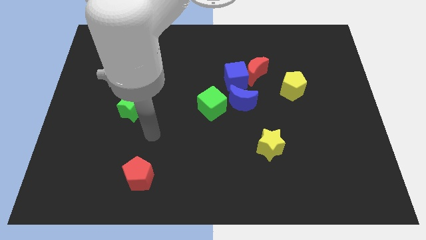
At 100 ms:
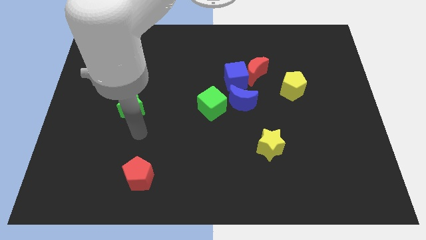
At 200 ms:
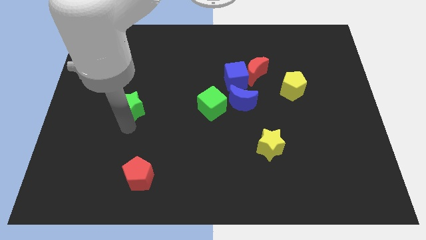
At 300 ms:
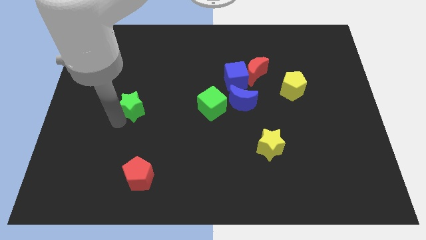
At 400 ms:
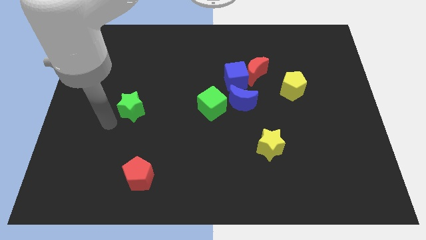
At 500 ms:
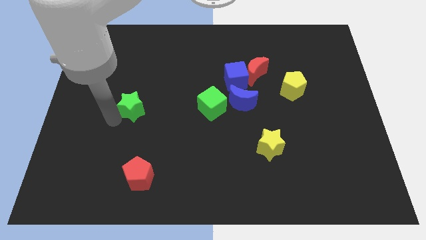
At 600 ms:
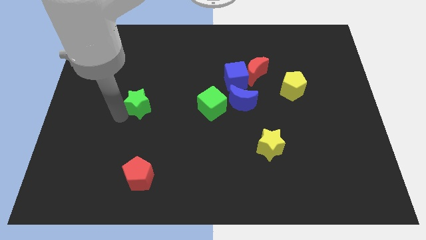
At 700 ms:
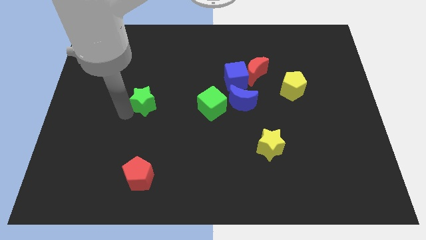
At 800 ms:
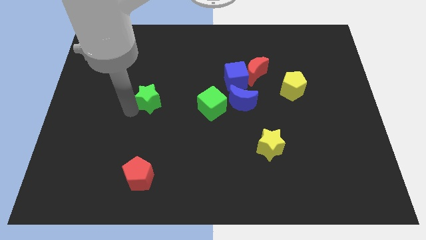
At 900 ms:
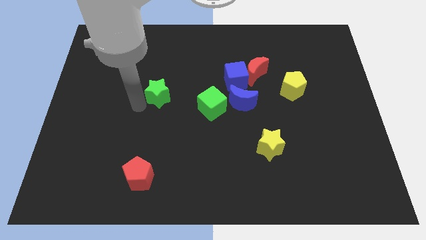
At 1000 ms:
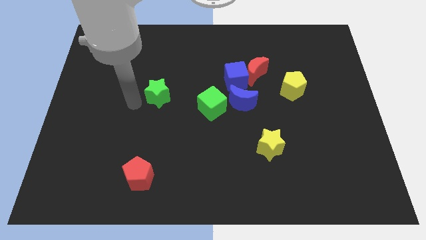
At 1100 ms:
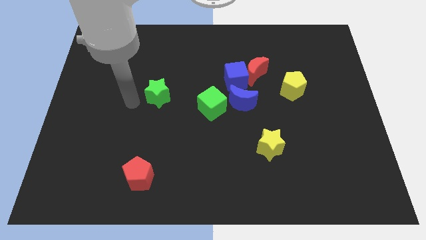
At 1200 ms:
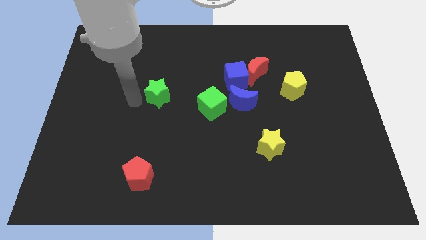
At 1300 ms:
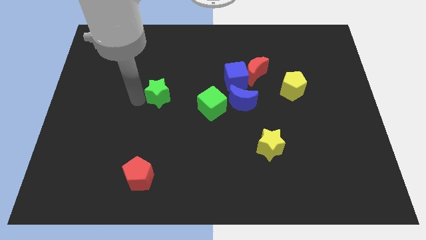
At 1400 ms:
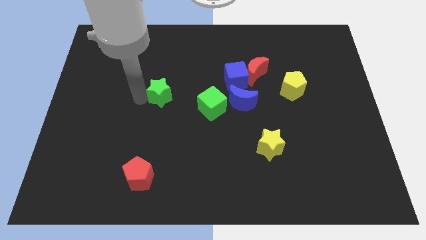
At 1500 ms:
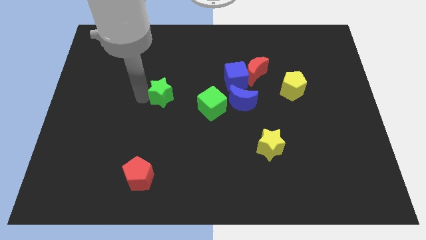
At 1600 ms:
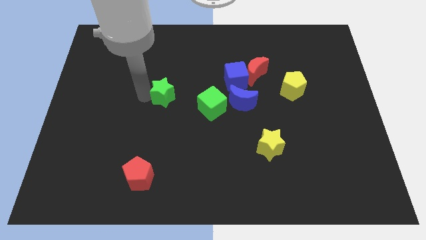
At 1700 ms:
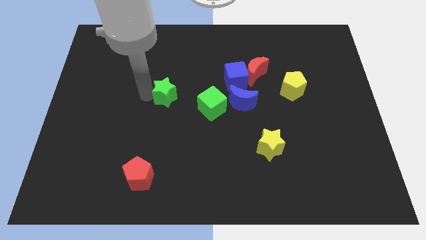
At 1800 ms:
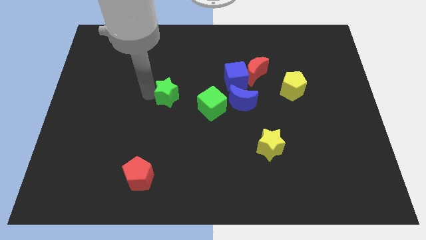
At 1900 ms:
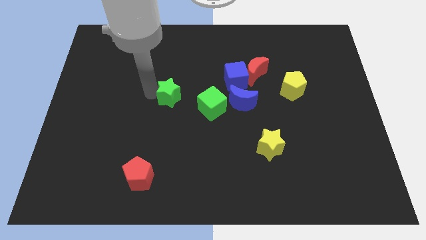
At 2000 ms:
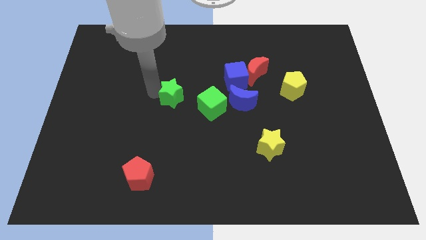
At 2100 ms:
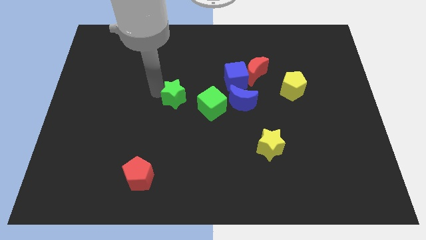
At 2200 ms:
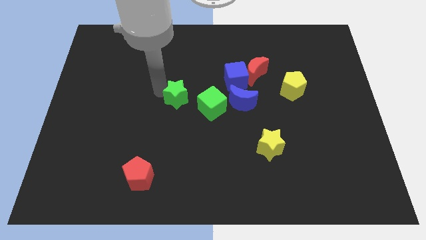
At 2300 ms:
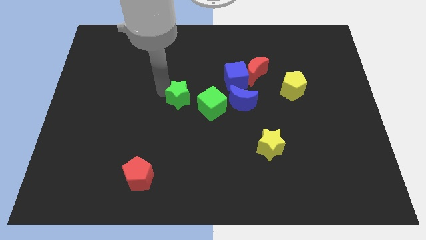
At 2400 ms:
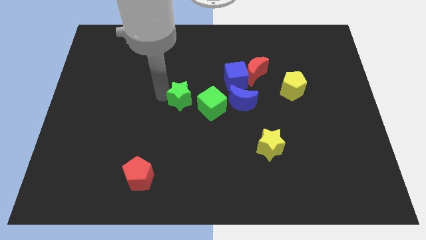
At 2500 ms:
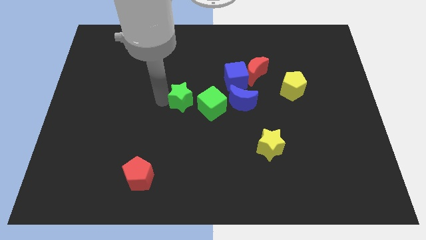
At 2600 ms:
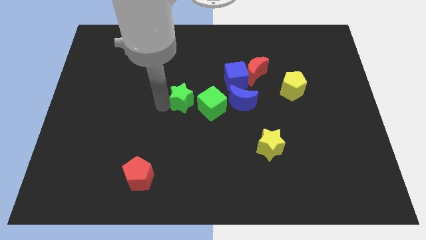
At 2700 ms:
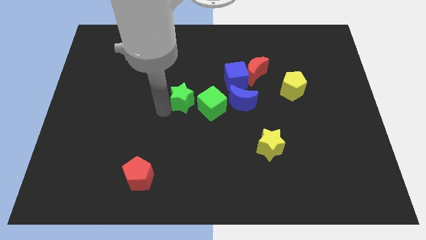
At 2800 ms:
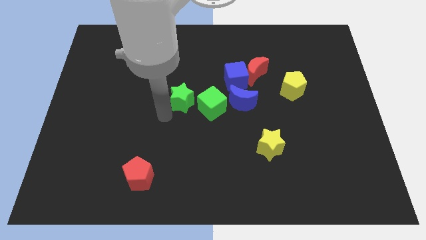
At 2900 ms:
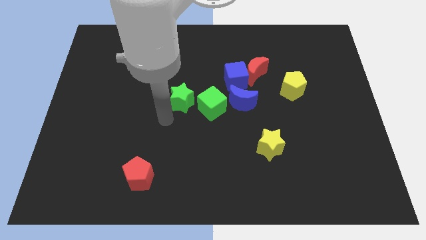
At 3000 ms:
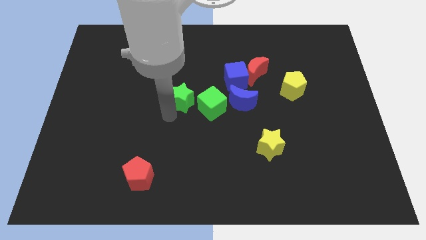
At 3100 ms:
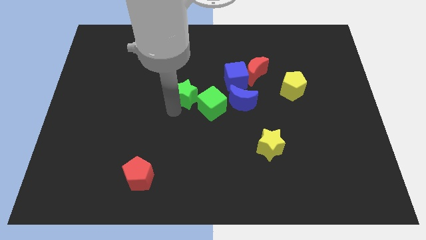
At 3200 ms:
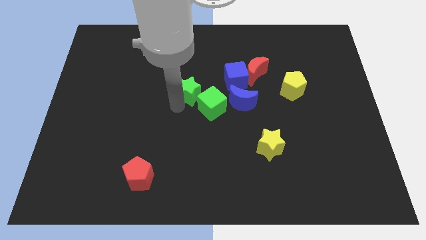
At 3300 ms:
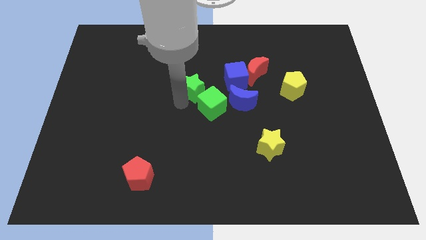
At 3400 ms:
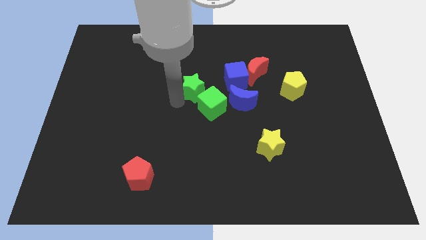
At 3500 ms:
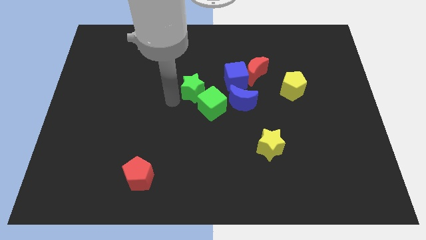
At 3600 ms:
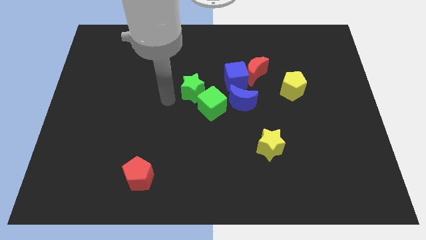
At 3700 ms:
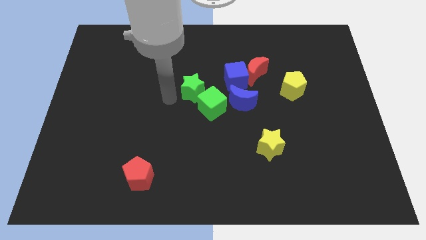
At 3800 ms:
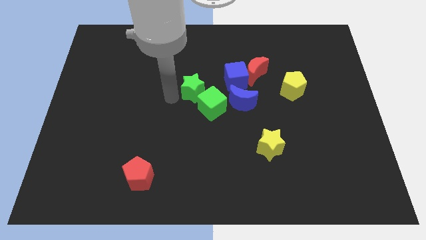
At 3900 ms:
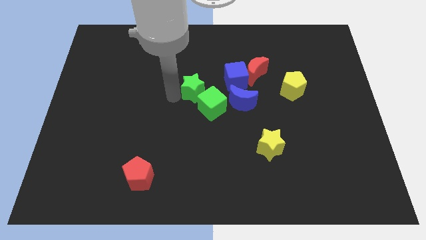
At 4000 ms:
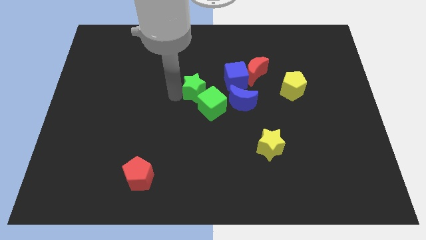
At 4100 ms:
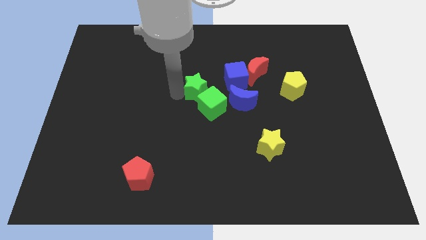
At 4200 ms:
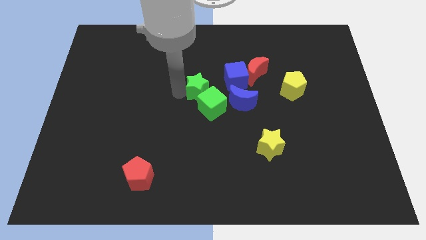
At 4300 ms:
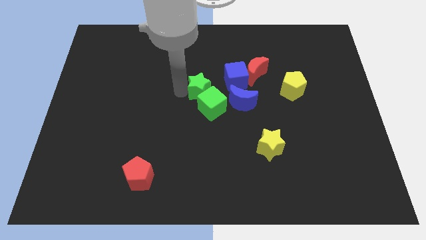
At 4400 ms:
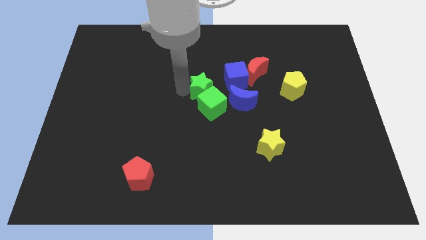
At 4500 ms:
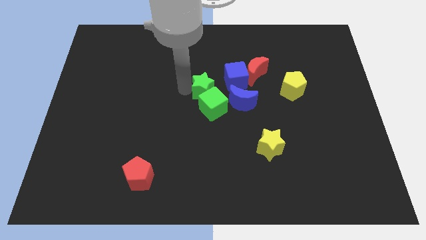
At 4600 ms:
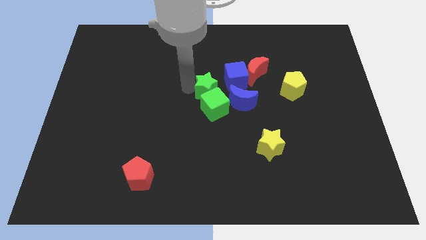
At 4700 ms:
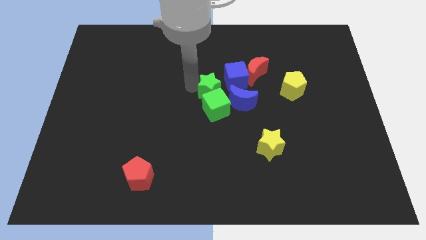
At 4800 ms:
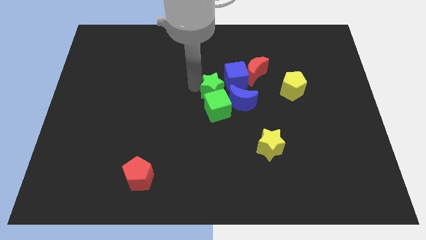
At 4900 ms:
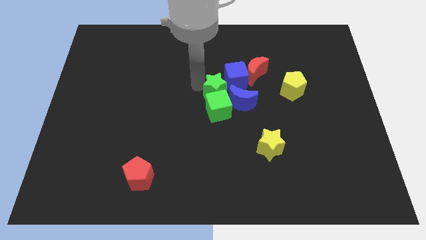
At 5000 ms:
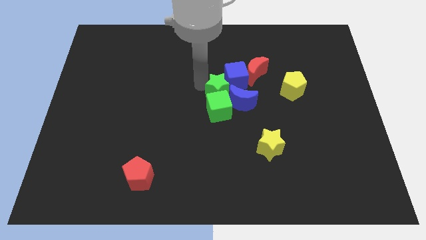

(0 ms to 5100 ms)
put the green star towards the blue cube

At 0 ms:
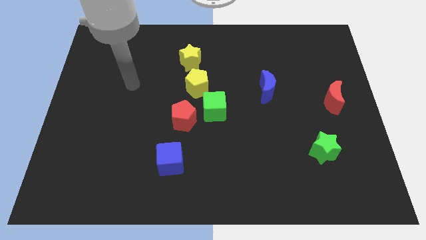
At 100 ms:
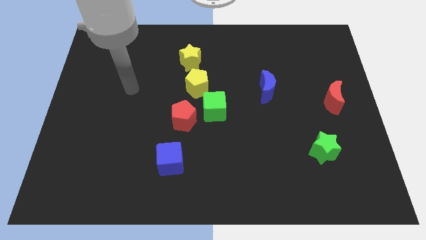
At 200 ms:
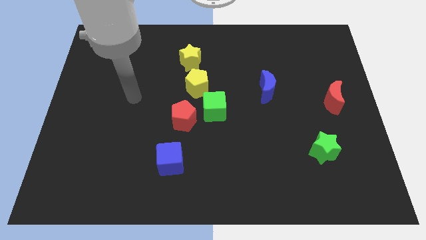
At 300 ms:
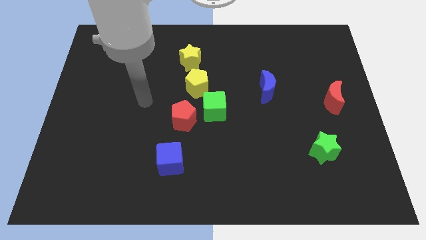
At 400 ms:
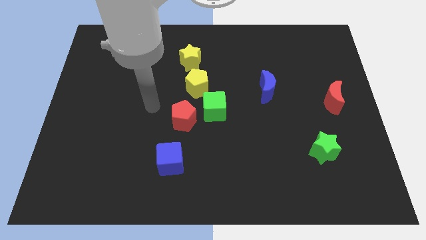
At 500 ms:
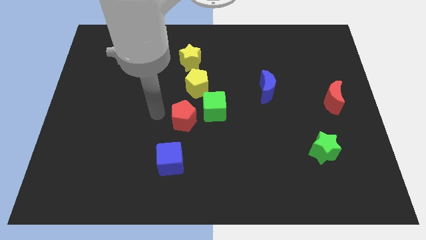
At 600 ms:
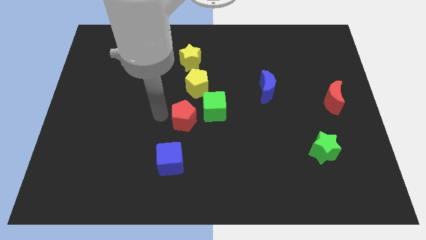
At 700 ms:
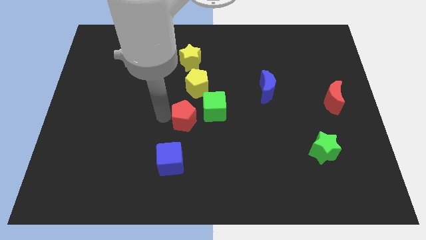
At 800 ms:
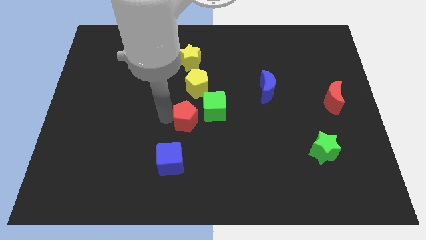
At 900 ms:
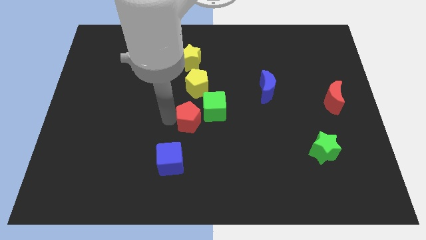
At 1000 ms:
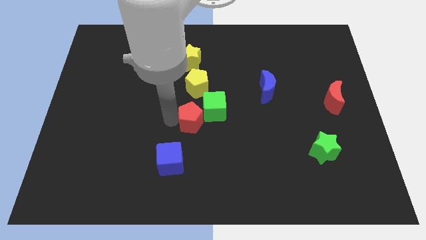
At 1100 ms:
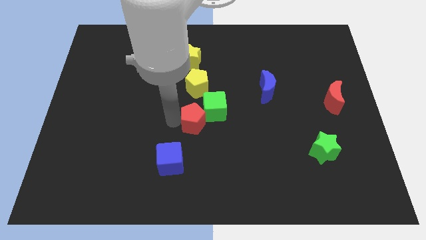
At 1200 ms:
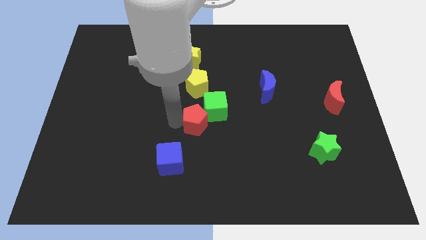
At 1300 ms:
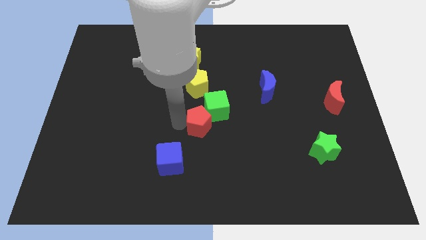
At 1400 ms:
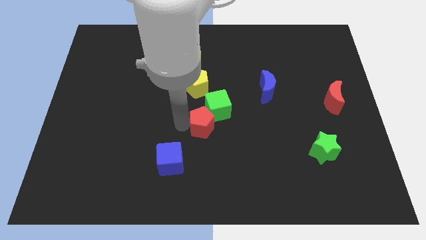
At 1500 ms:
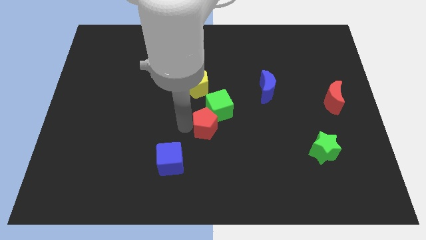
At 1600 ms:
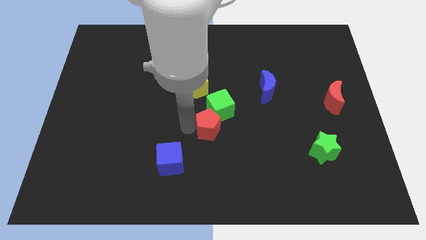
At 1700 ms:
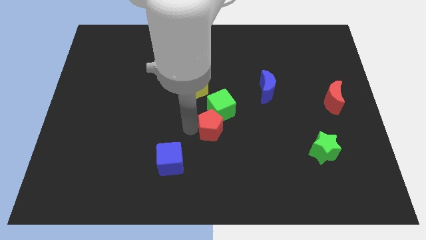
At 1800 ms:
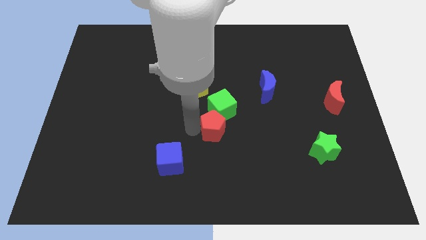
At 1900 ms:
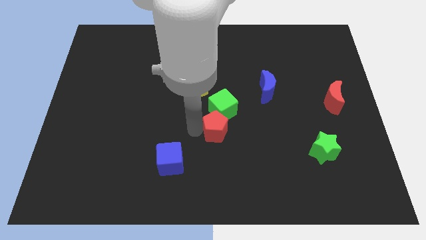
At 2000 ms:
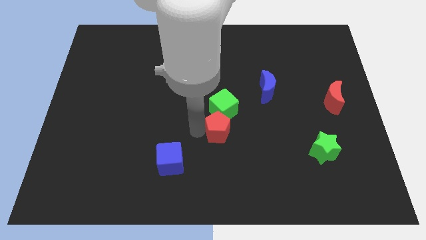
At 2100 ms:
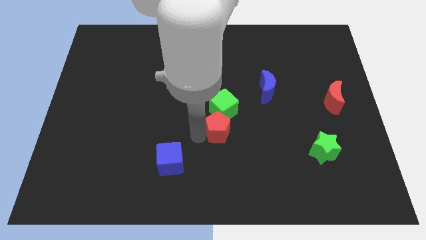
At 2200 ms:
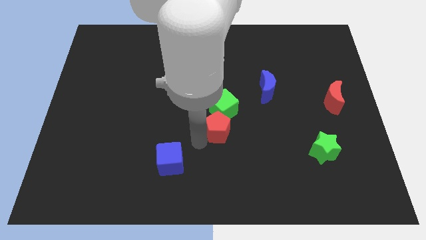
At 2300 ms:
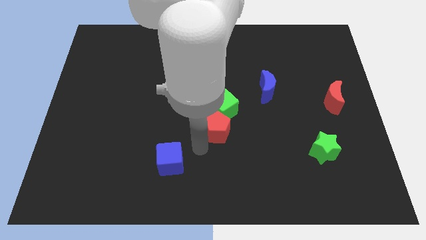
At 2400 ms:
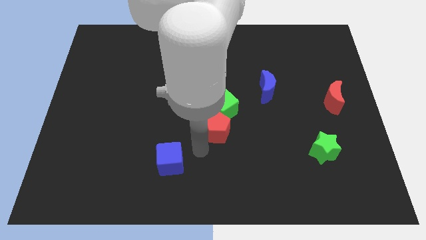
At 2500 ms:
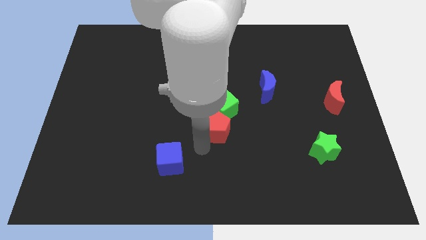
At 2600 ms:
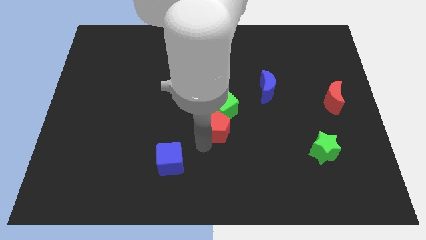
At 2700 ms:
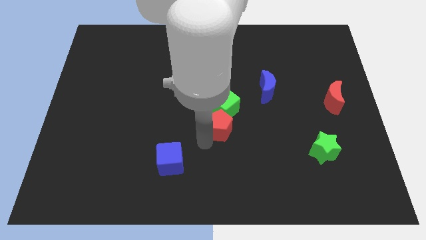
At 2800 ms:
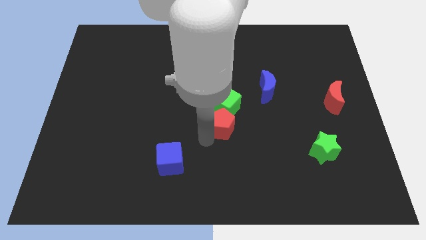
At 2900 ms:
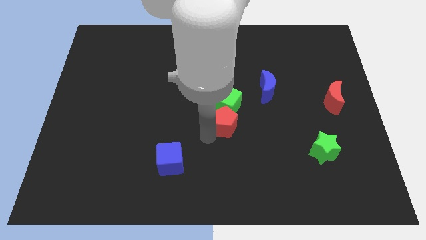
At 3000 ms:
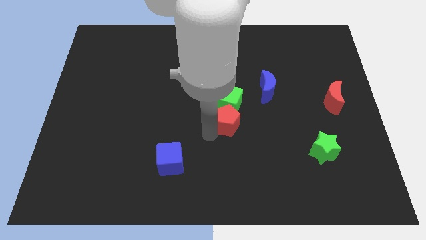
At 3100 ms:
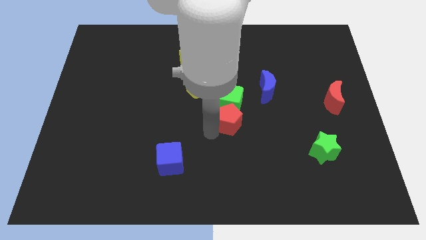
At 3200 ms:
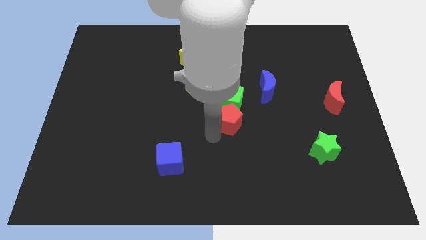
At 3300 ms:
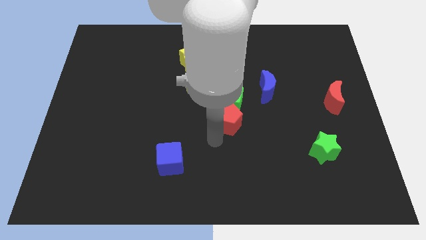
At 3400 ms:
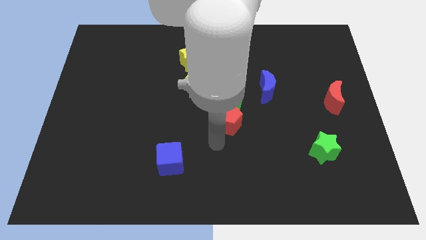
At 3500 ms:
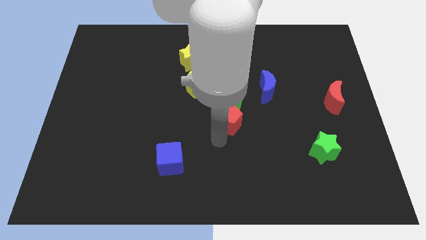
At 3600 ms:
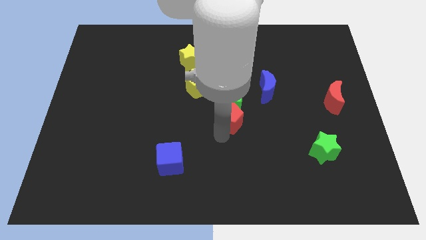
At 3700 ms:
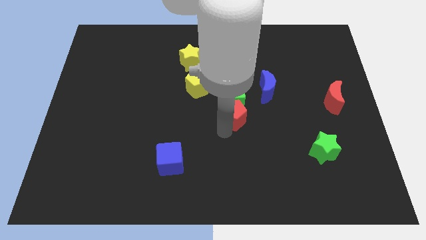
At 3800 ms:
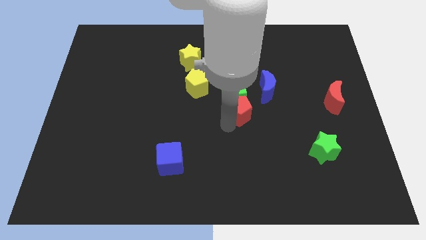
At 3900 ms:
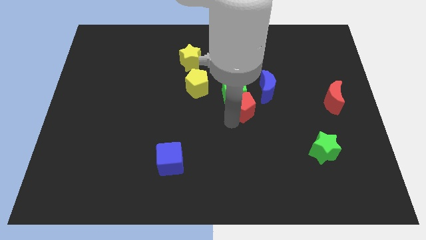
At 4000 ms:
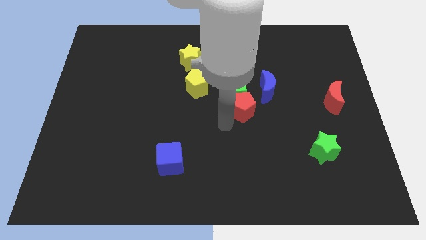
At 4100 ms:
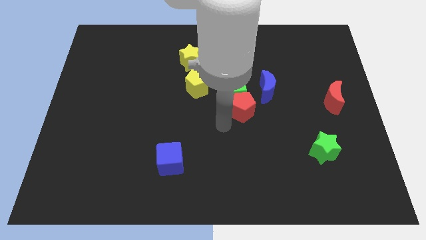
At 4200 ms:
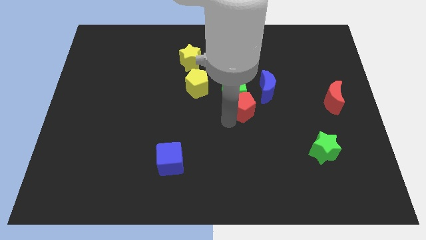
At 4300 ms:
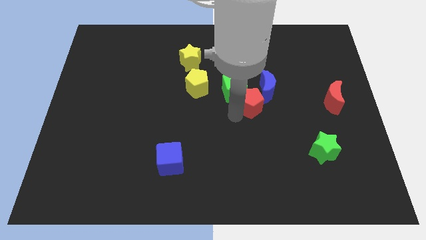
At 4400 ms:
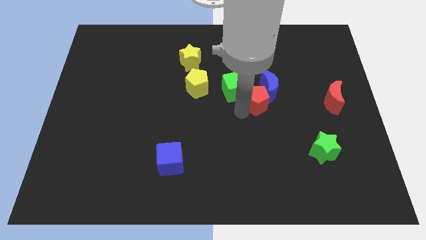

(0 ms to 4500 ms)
push the red pentagon close to the blue moon
